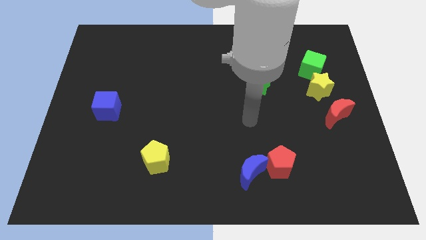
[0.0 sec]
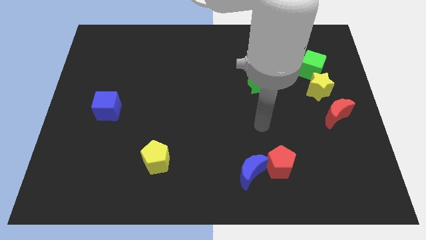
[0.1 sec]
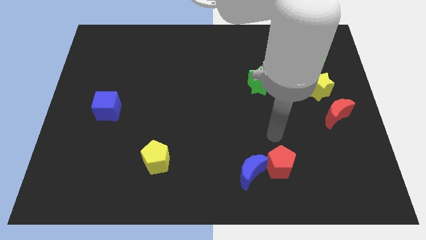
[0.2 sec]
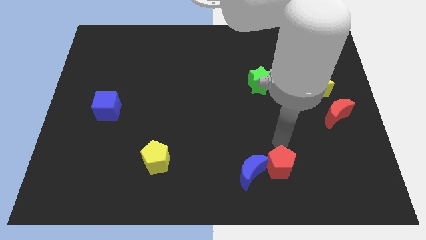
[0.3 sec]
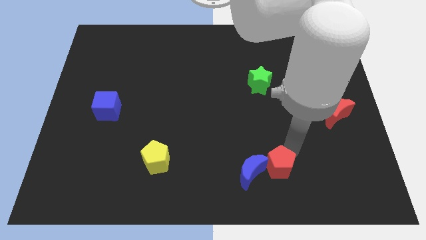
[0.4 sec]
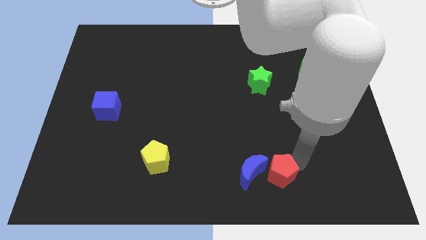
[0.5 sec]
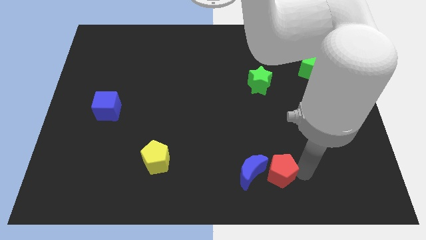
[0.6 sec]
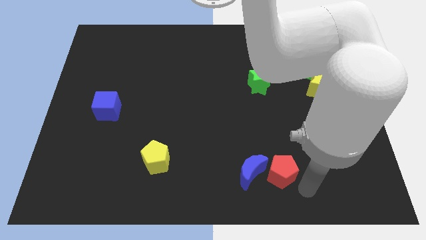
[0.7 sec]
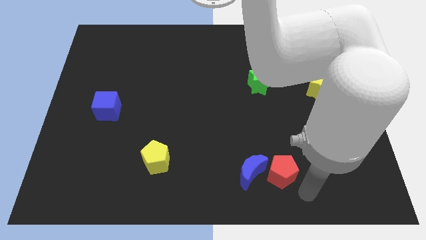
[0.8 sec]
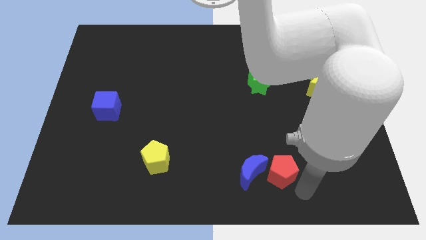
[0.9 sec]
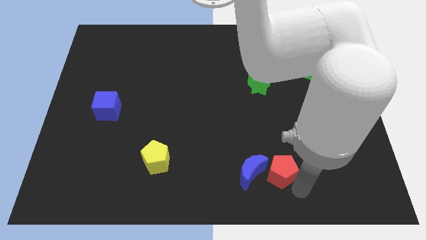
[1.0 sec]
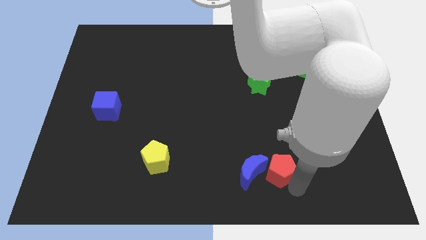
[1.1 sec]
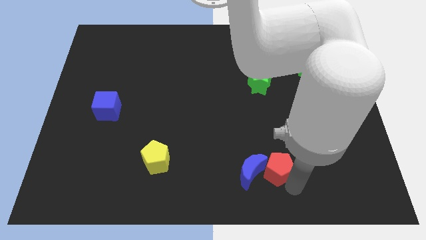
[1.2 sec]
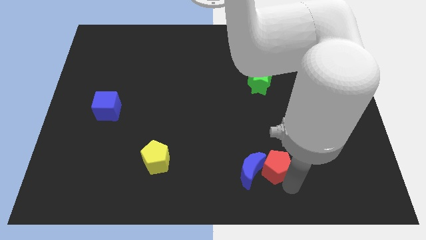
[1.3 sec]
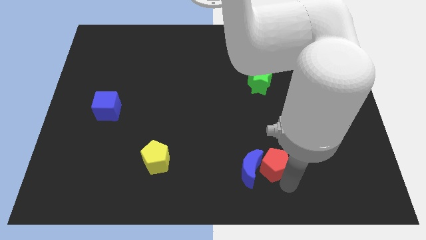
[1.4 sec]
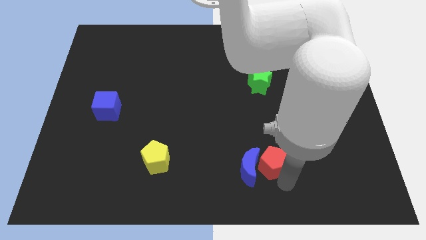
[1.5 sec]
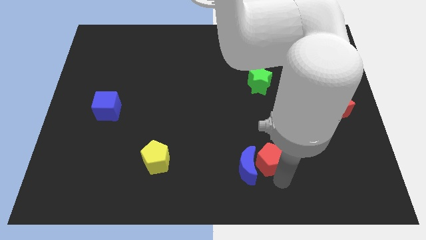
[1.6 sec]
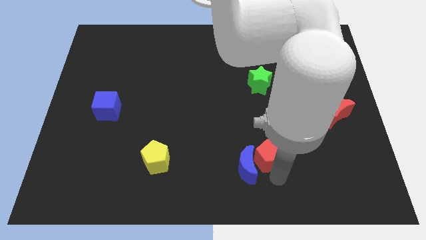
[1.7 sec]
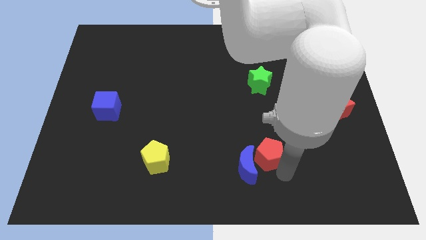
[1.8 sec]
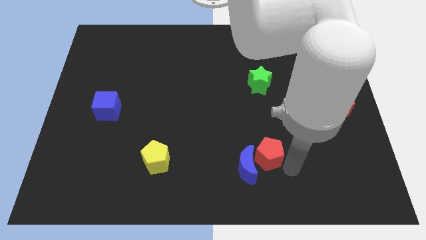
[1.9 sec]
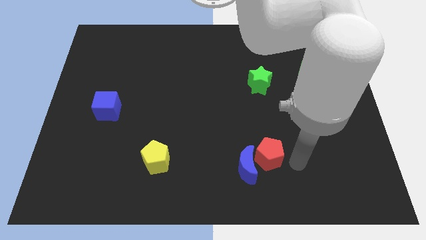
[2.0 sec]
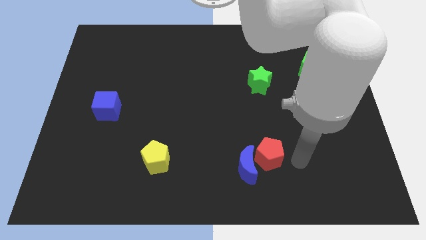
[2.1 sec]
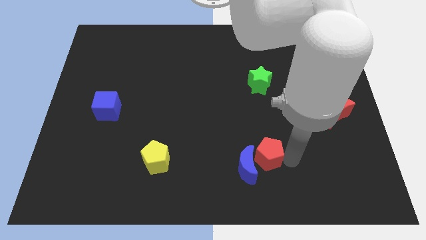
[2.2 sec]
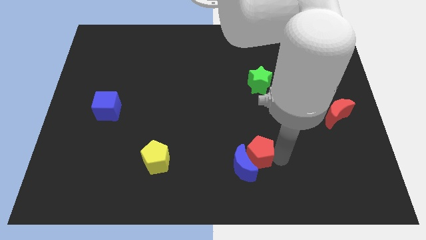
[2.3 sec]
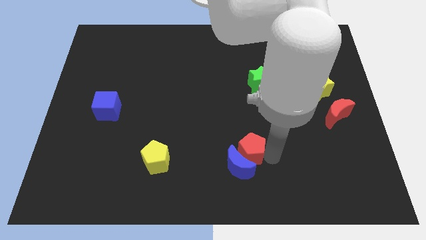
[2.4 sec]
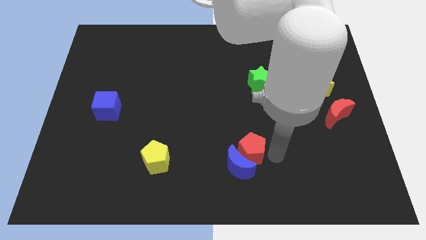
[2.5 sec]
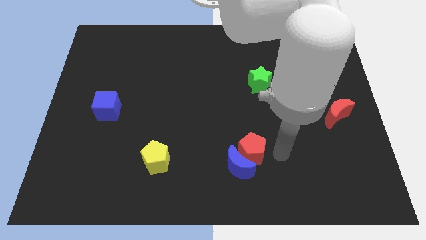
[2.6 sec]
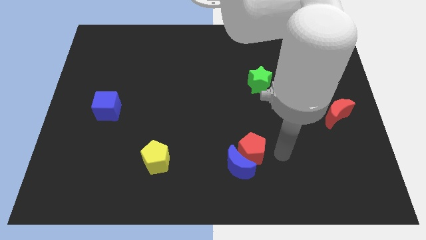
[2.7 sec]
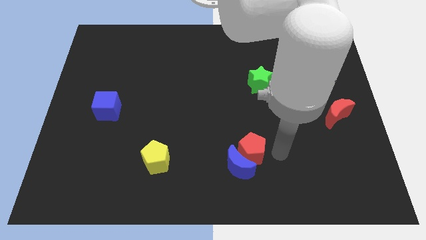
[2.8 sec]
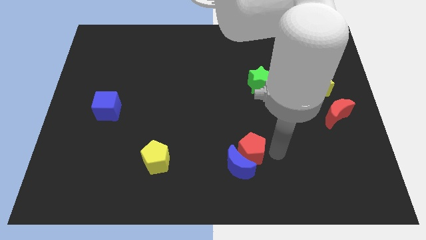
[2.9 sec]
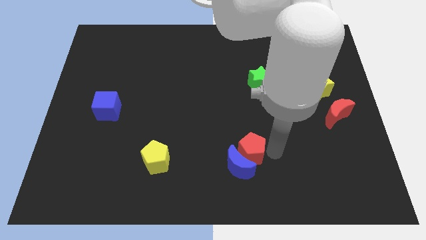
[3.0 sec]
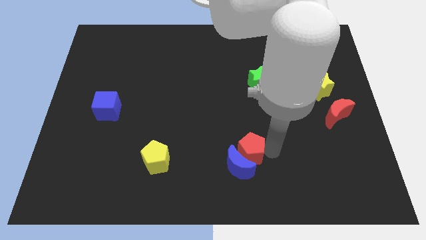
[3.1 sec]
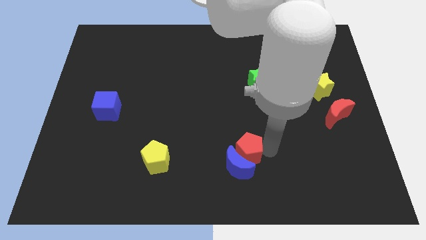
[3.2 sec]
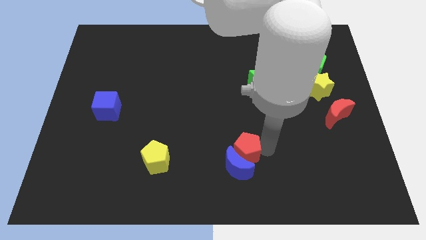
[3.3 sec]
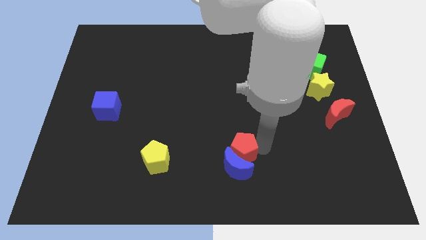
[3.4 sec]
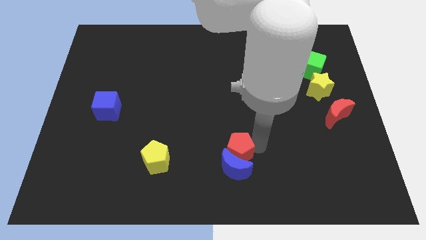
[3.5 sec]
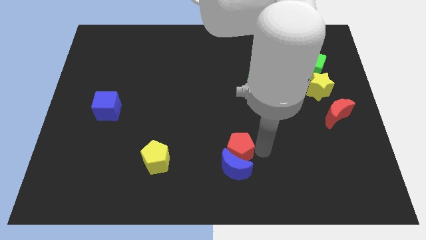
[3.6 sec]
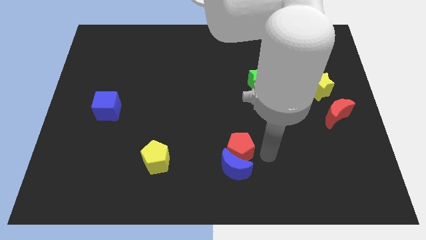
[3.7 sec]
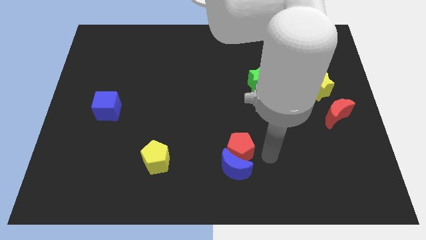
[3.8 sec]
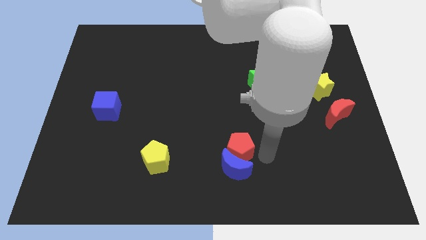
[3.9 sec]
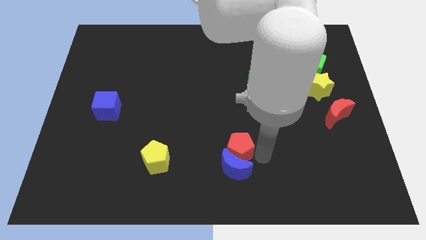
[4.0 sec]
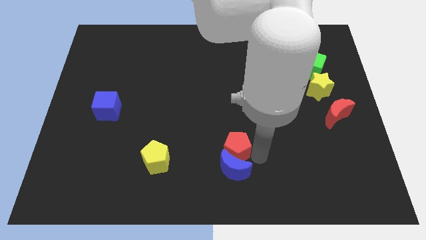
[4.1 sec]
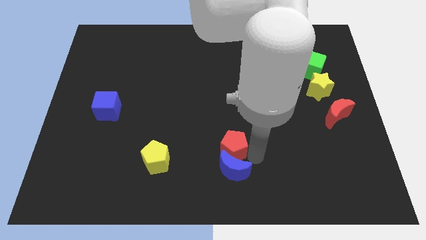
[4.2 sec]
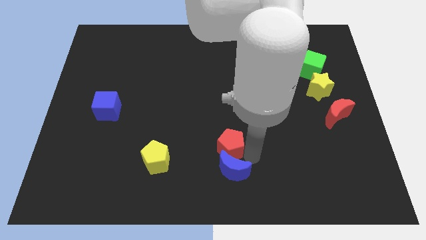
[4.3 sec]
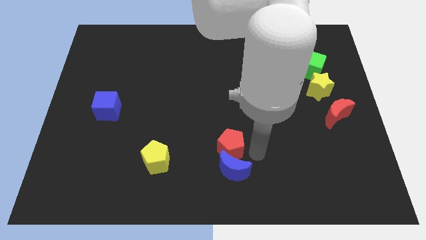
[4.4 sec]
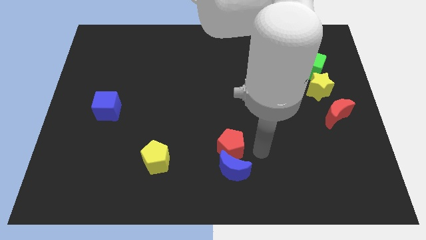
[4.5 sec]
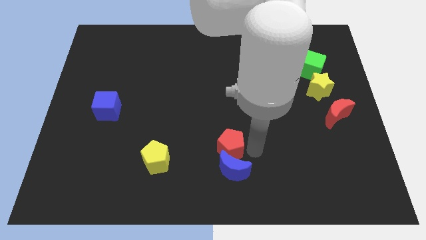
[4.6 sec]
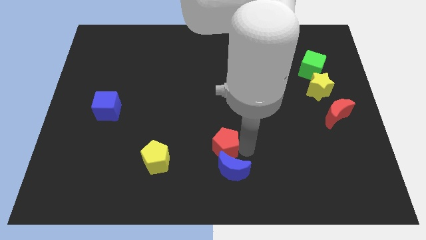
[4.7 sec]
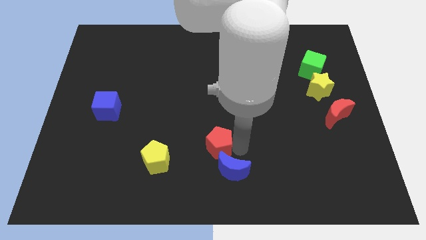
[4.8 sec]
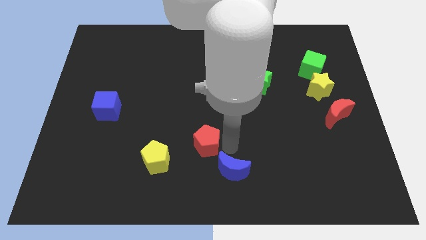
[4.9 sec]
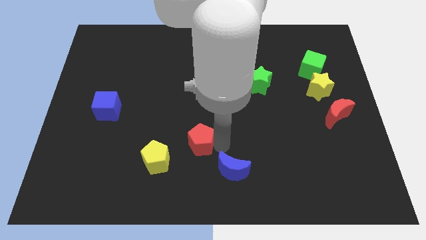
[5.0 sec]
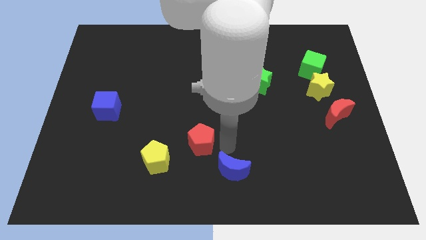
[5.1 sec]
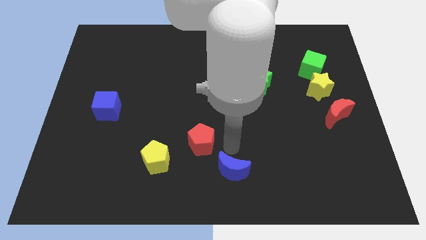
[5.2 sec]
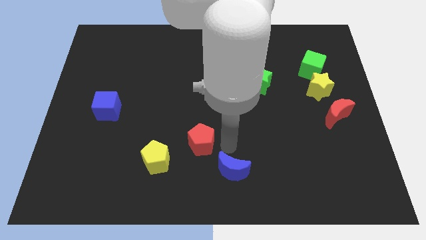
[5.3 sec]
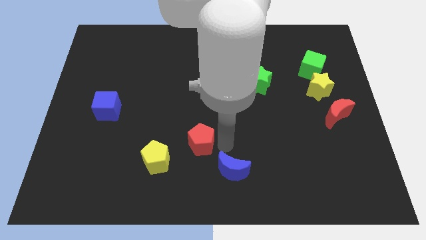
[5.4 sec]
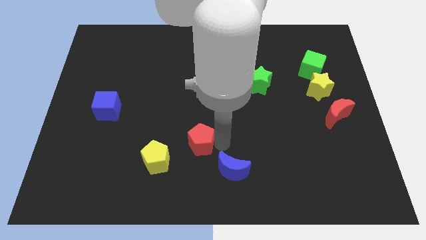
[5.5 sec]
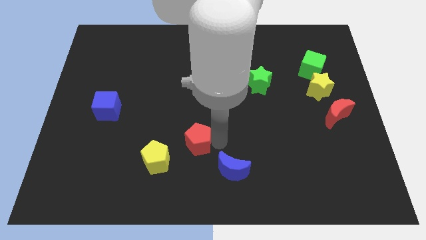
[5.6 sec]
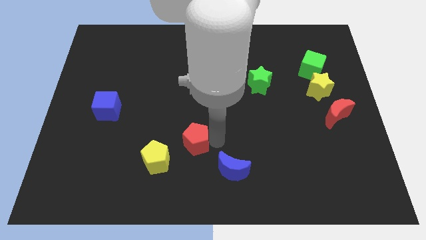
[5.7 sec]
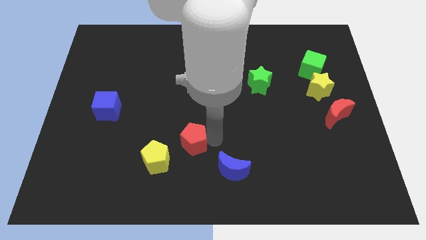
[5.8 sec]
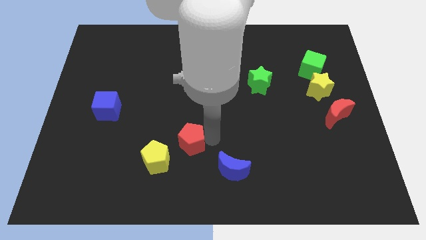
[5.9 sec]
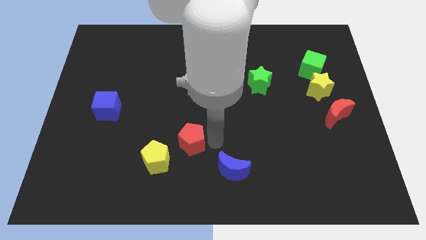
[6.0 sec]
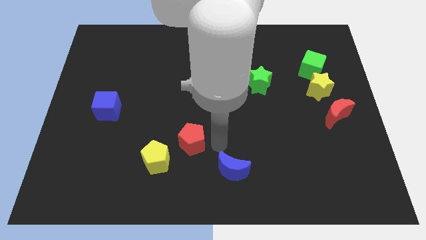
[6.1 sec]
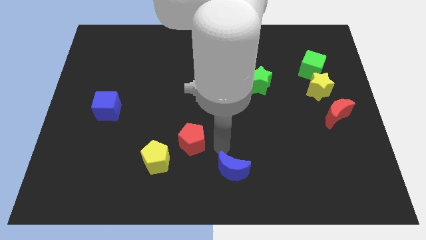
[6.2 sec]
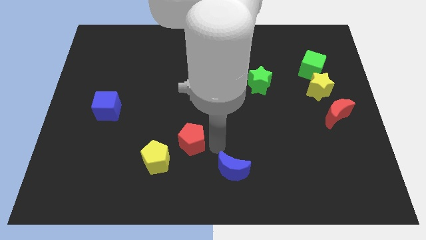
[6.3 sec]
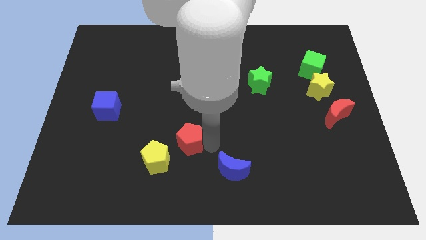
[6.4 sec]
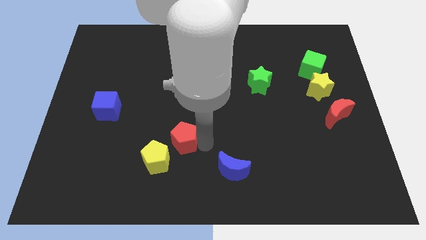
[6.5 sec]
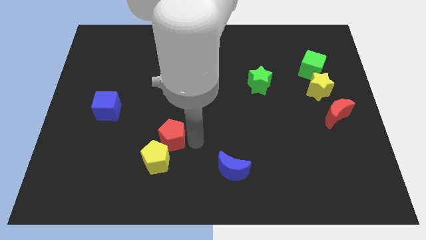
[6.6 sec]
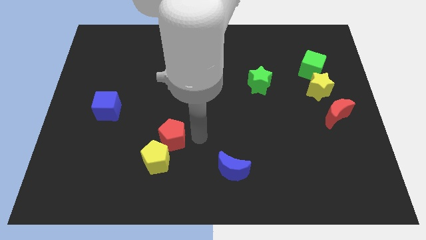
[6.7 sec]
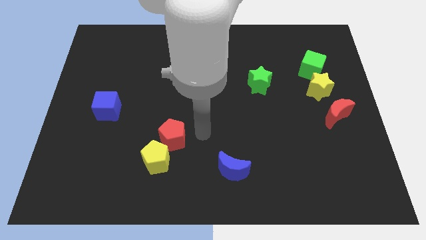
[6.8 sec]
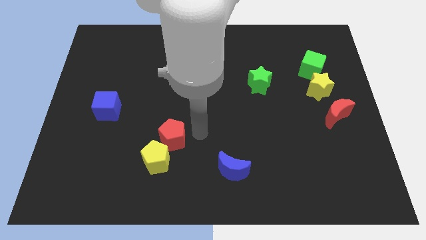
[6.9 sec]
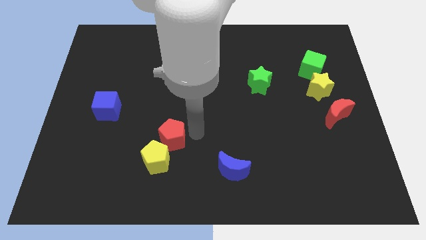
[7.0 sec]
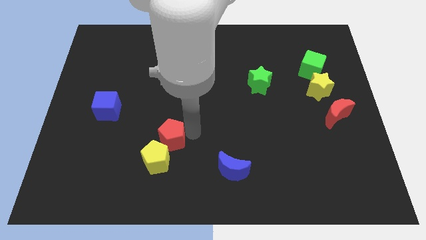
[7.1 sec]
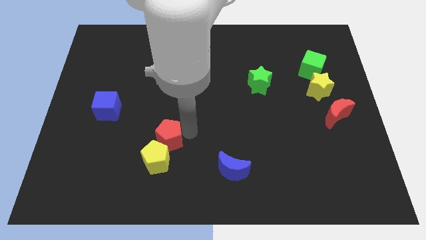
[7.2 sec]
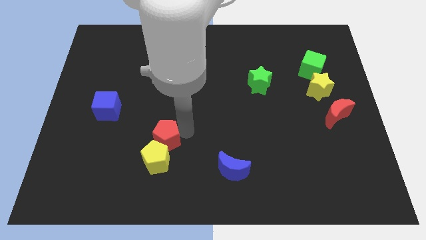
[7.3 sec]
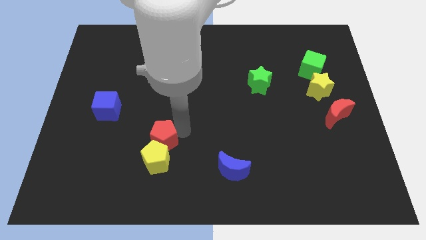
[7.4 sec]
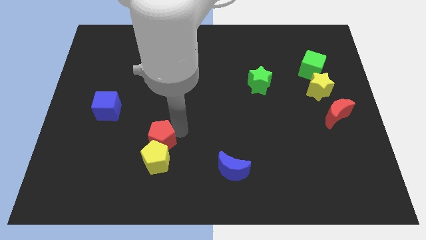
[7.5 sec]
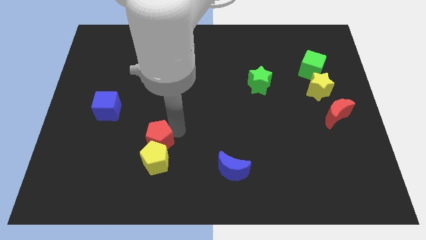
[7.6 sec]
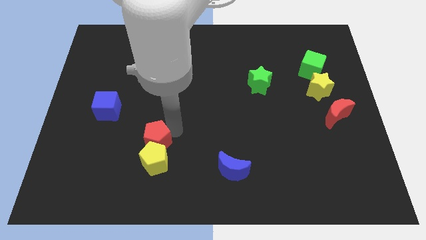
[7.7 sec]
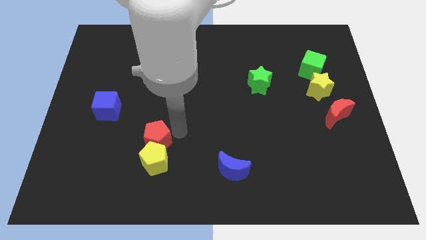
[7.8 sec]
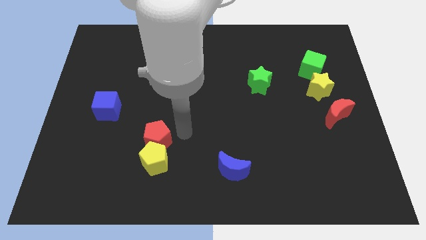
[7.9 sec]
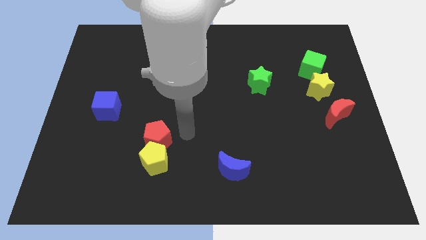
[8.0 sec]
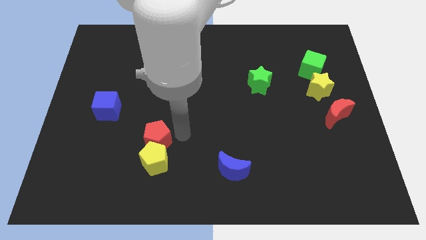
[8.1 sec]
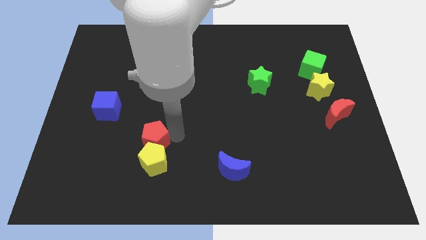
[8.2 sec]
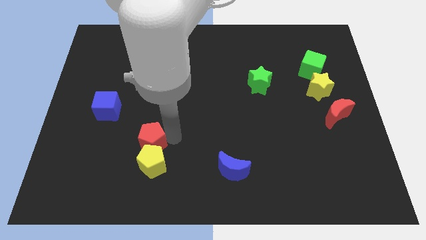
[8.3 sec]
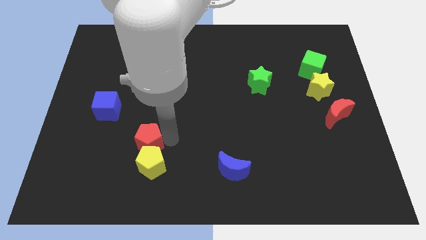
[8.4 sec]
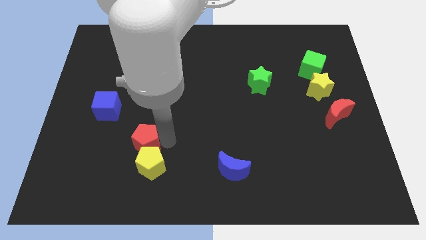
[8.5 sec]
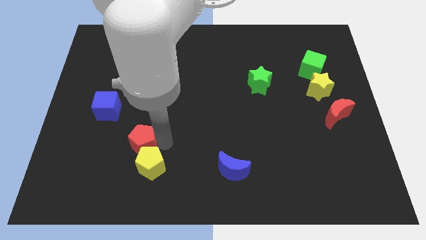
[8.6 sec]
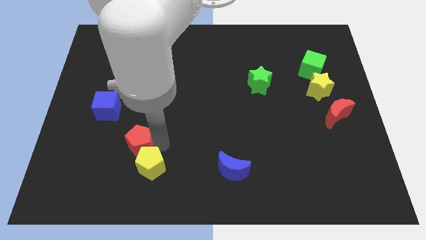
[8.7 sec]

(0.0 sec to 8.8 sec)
put the red pentagon to the bottom right of the blue cube
